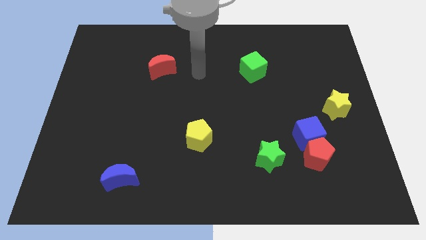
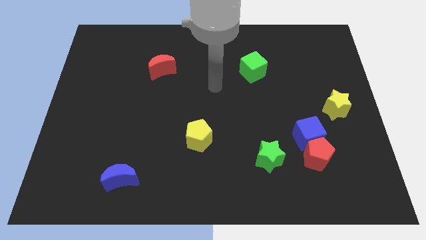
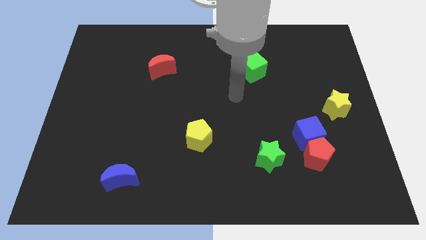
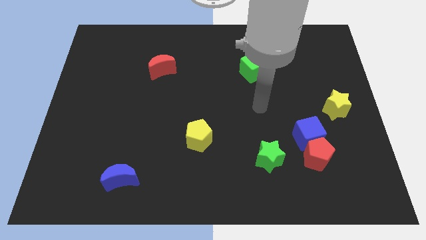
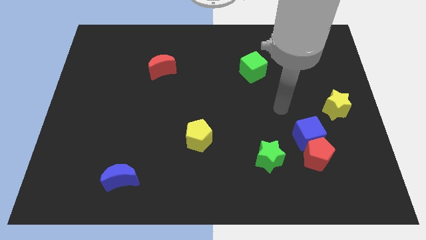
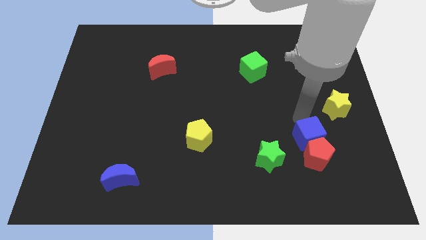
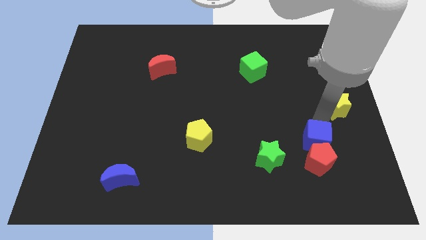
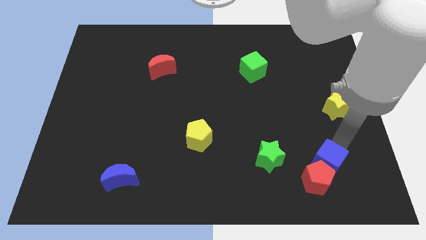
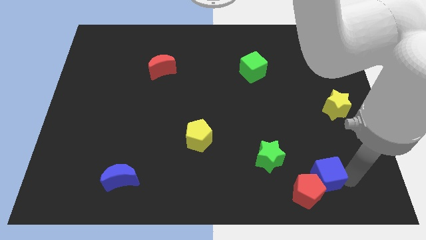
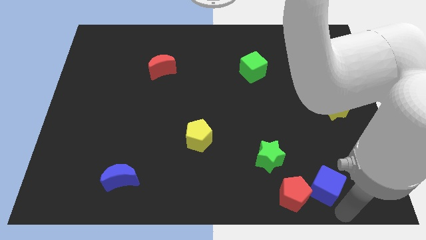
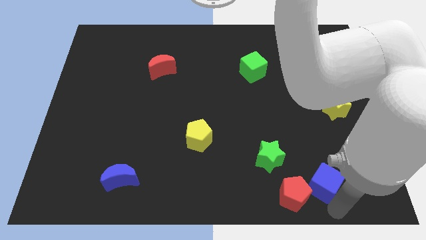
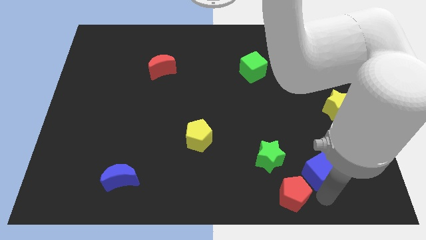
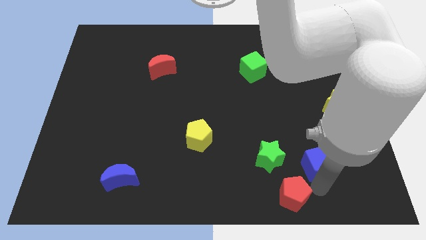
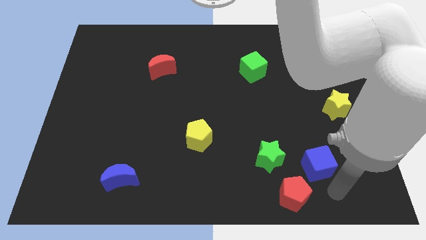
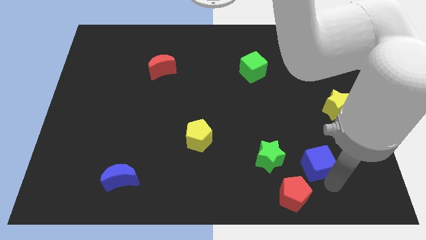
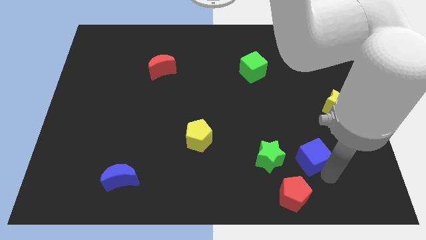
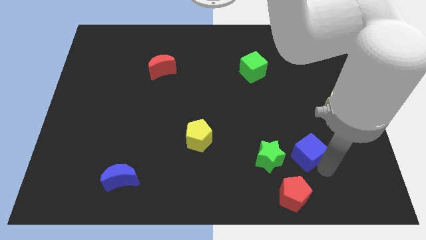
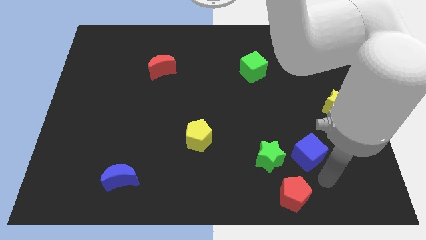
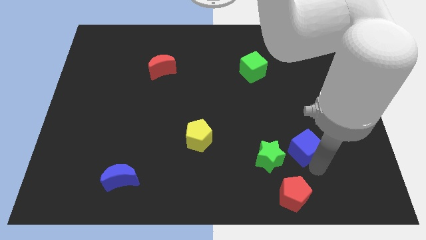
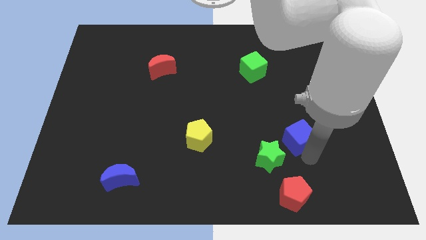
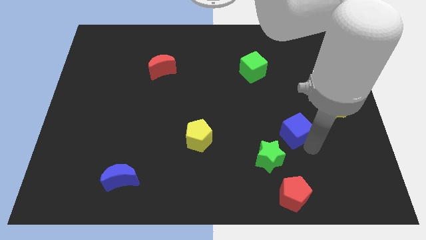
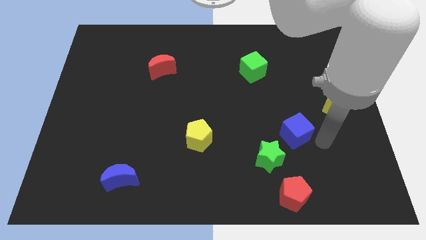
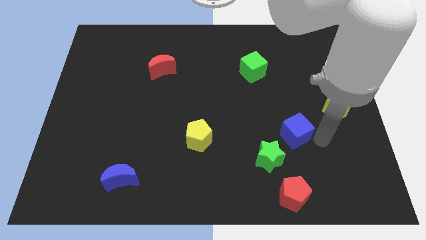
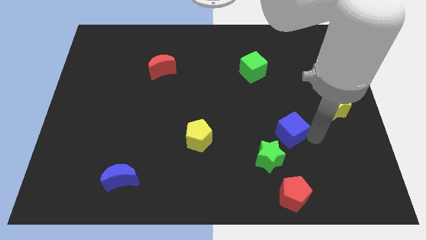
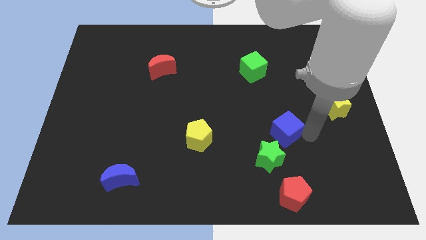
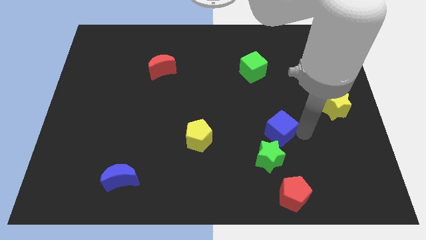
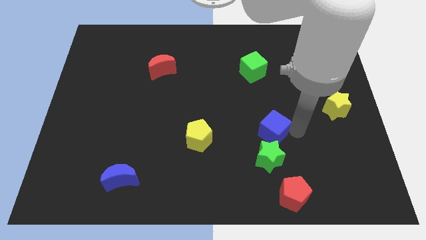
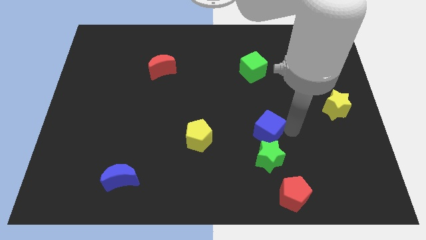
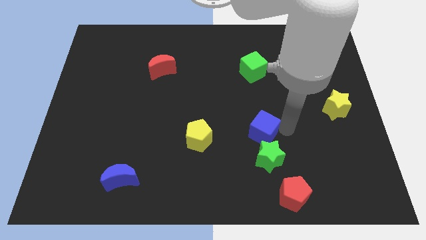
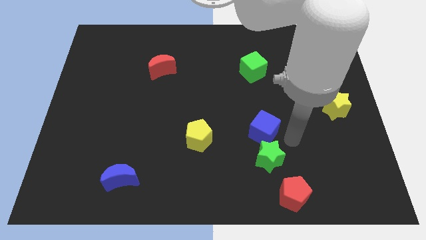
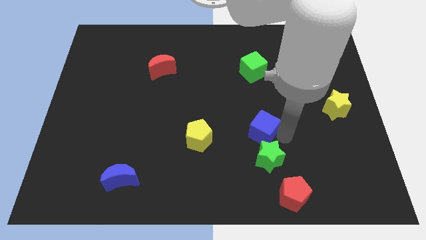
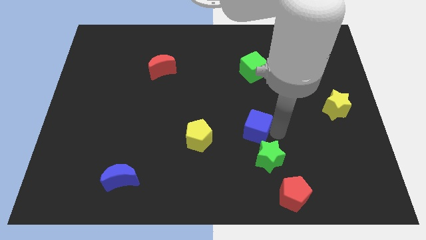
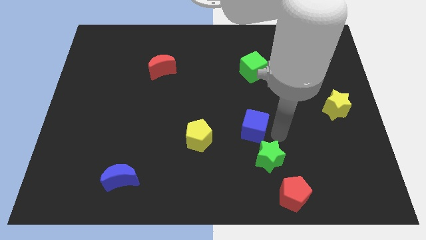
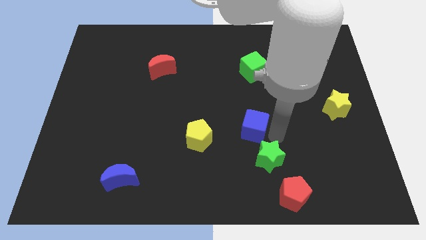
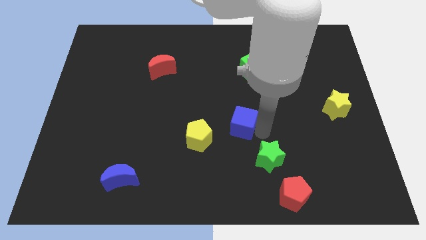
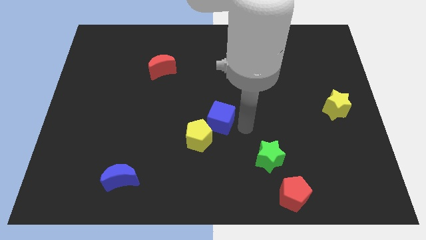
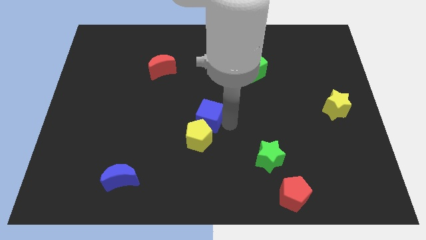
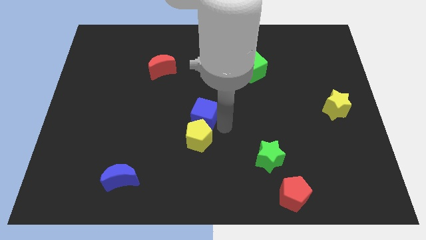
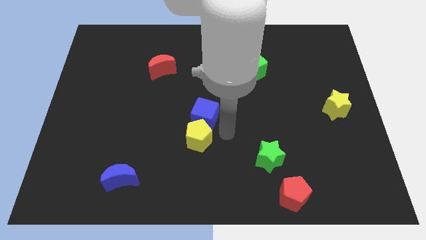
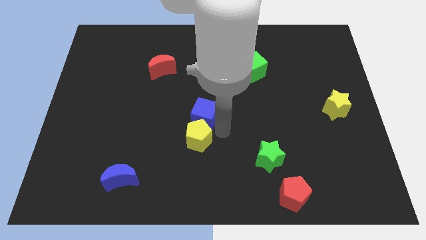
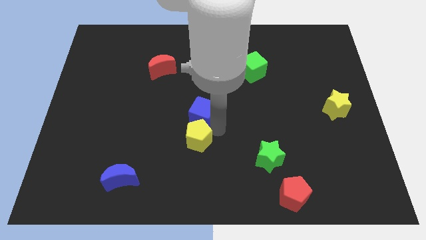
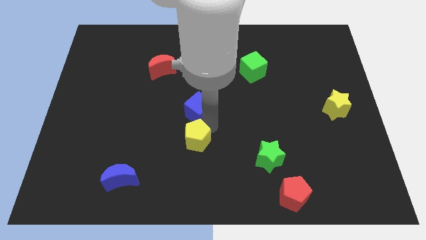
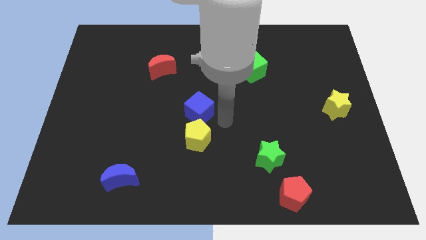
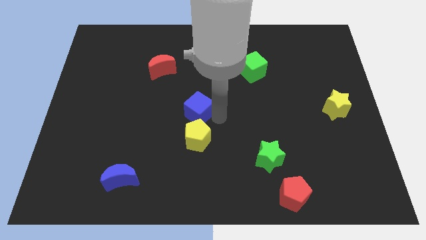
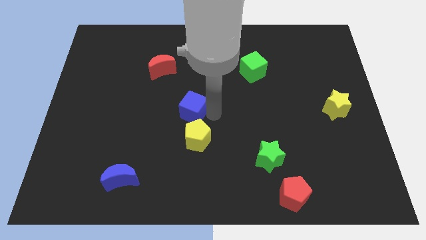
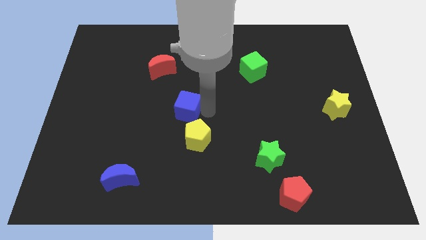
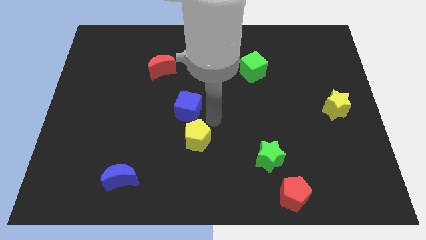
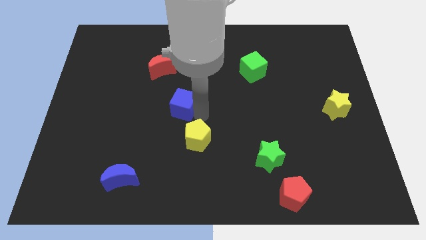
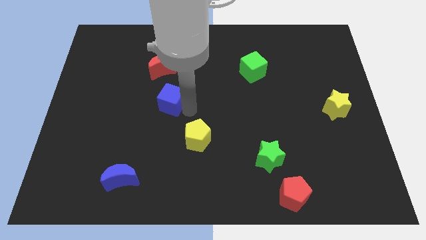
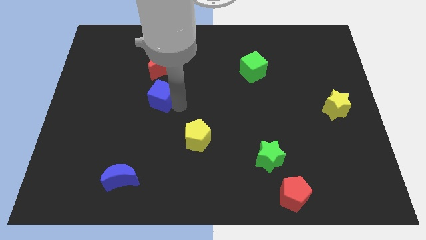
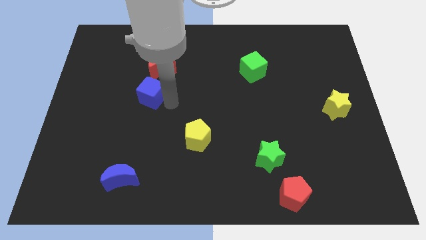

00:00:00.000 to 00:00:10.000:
slide the blue cube to the bottom left side of the red moon
